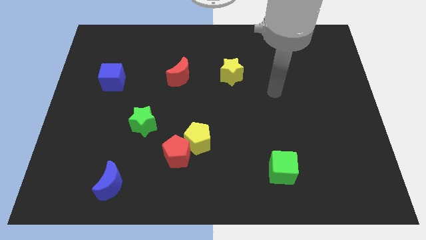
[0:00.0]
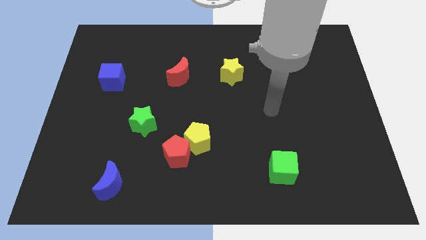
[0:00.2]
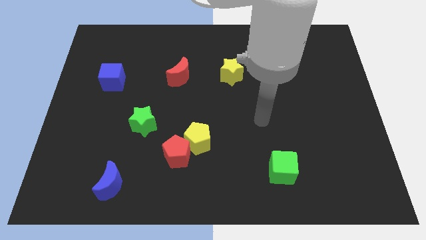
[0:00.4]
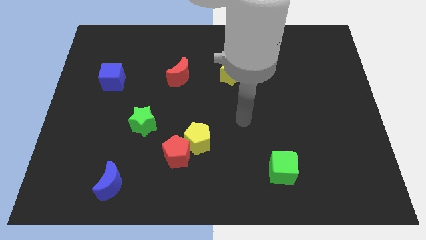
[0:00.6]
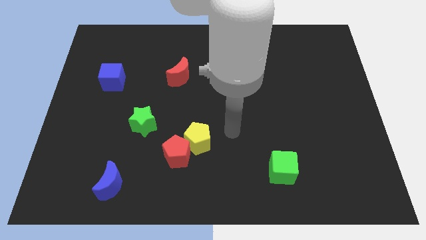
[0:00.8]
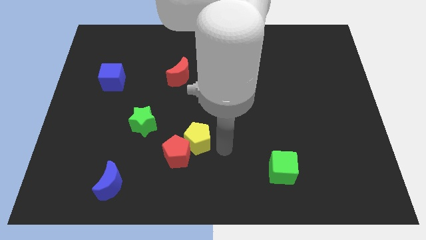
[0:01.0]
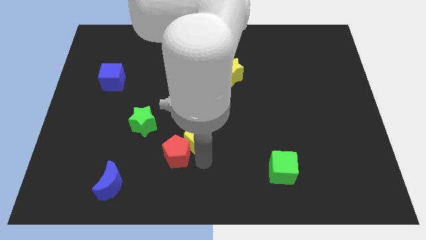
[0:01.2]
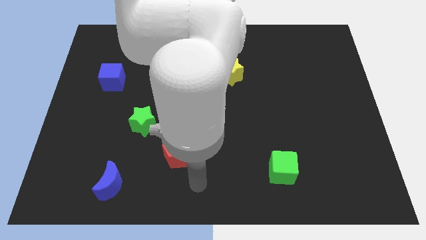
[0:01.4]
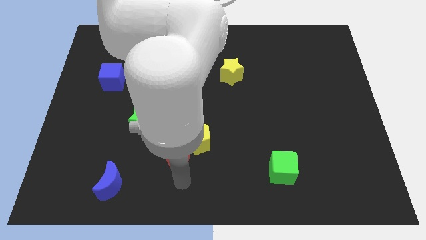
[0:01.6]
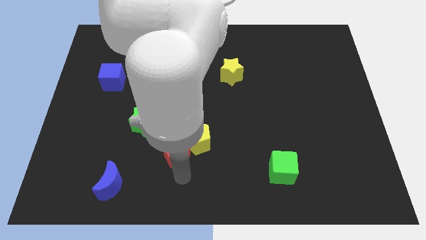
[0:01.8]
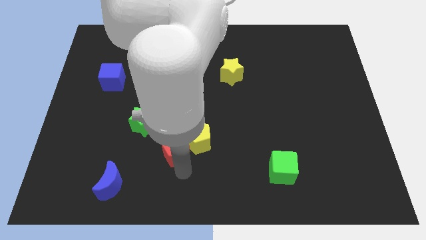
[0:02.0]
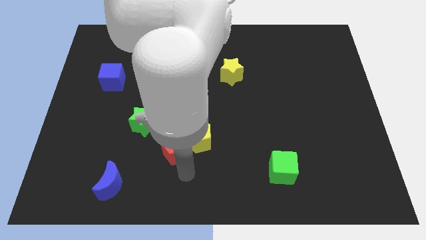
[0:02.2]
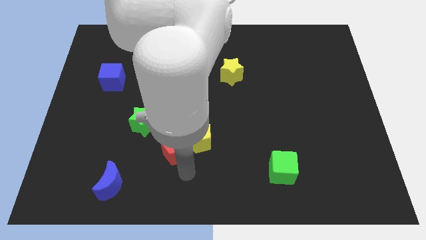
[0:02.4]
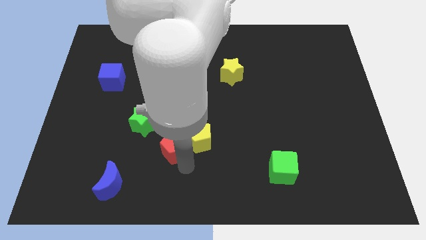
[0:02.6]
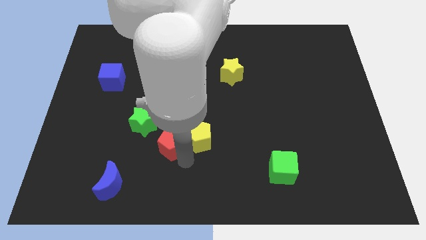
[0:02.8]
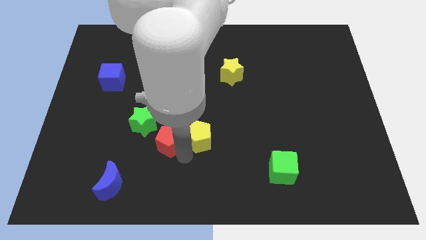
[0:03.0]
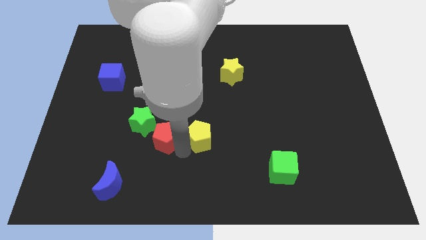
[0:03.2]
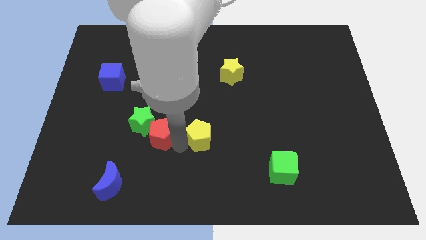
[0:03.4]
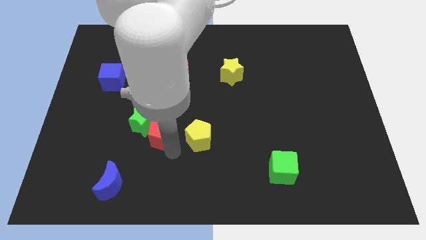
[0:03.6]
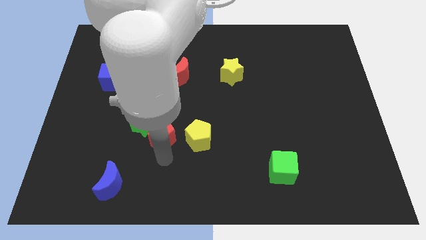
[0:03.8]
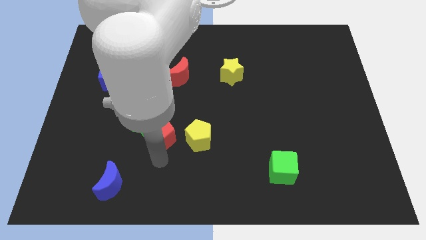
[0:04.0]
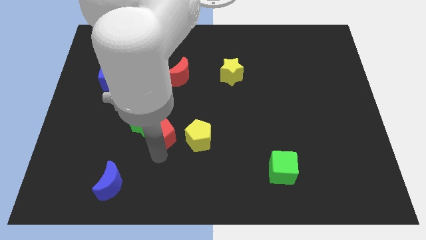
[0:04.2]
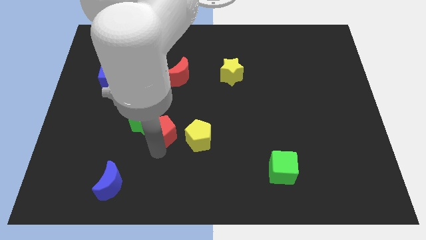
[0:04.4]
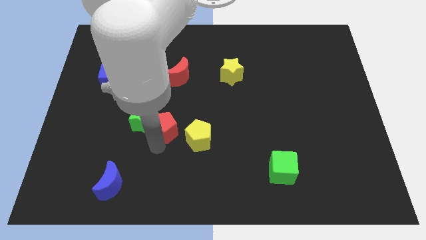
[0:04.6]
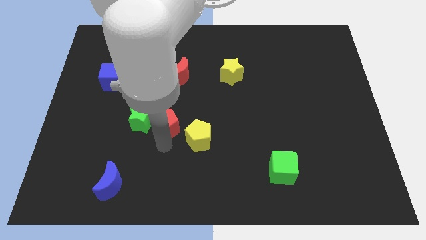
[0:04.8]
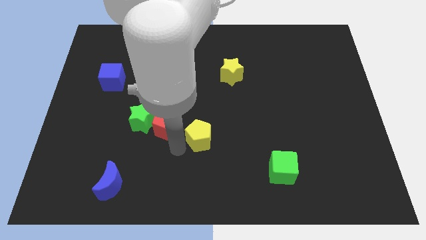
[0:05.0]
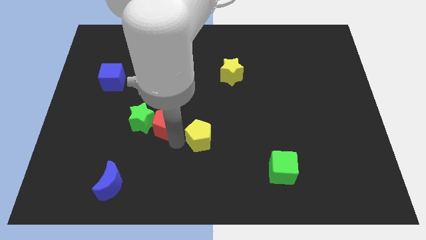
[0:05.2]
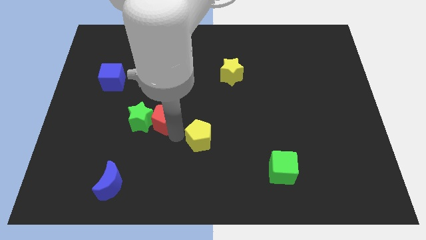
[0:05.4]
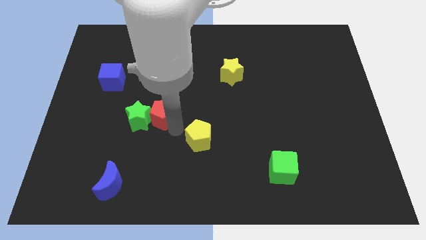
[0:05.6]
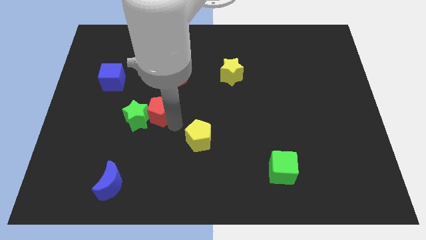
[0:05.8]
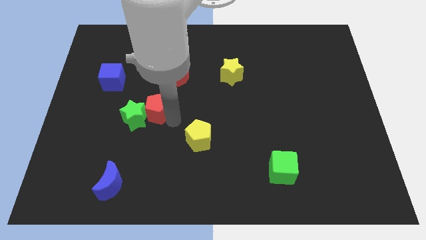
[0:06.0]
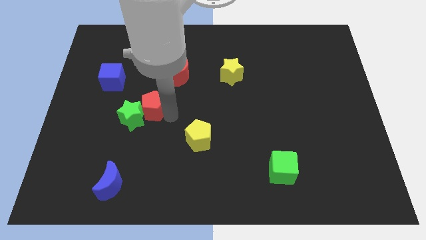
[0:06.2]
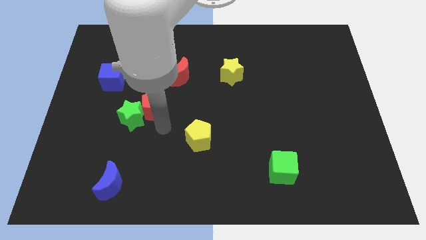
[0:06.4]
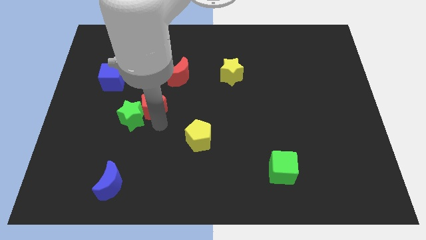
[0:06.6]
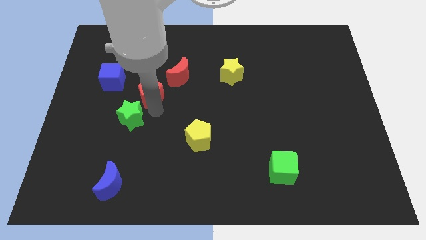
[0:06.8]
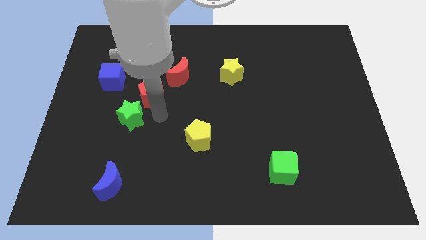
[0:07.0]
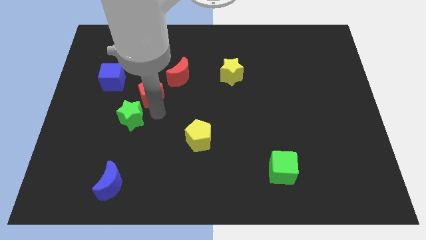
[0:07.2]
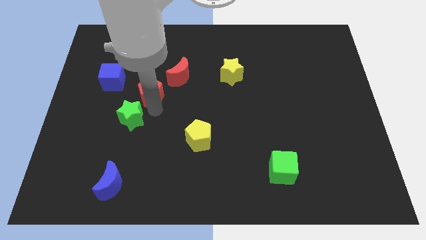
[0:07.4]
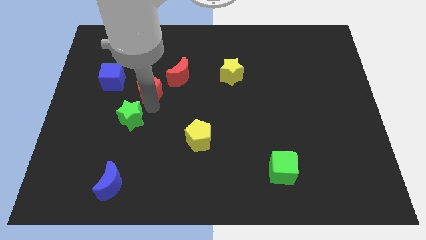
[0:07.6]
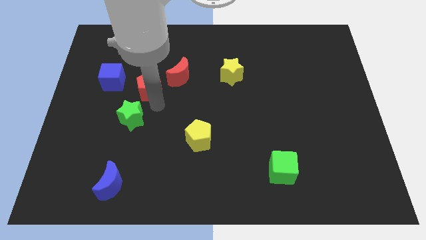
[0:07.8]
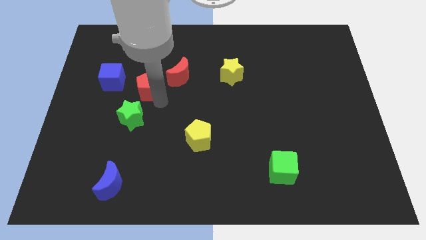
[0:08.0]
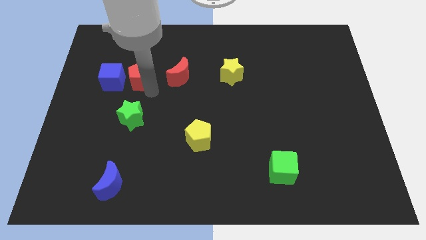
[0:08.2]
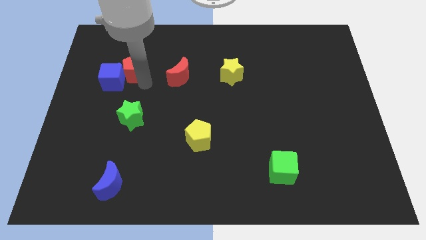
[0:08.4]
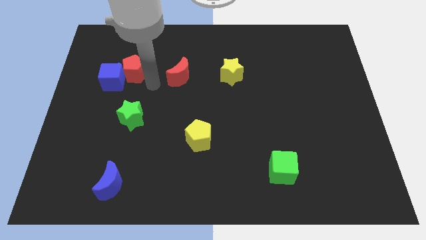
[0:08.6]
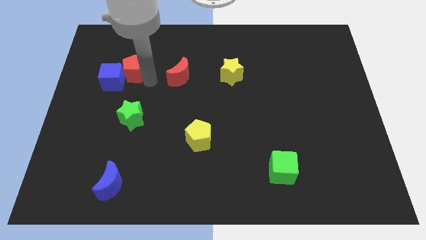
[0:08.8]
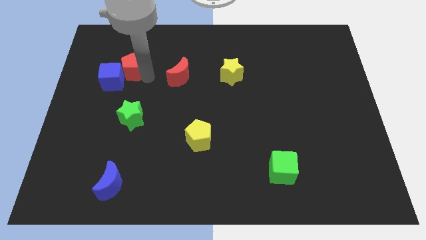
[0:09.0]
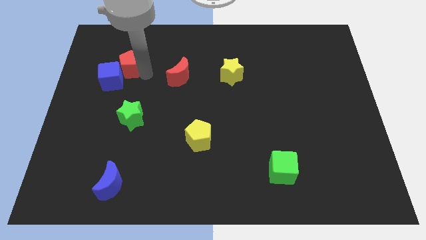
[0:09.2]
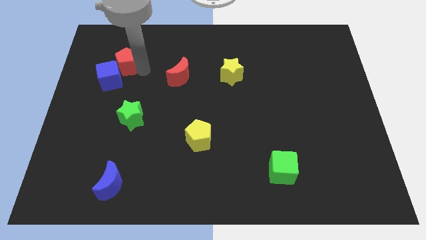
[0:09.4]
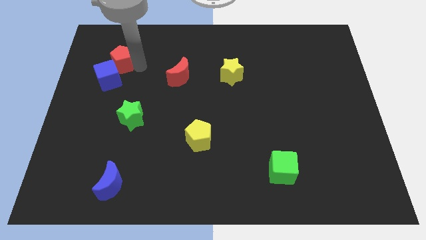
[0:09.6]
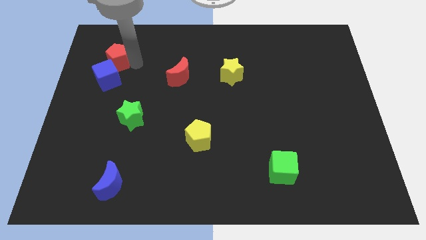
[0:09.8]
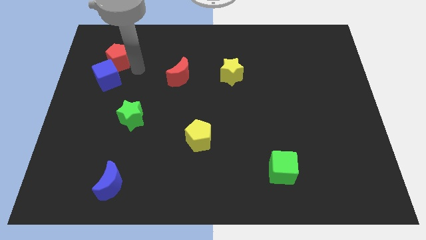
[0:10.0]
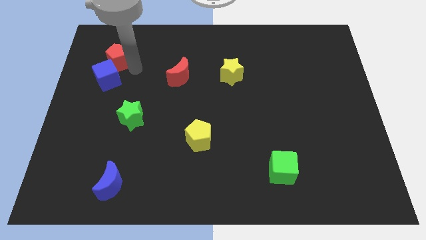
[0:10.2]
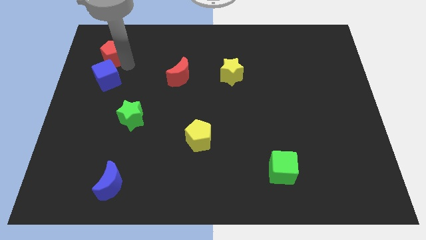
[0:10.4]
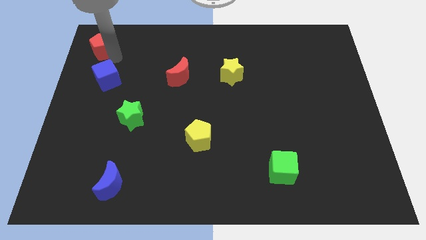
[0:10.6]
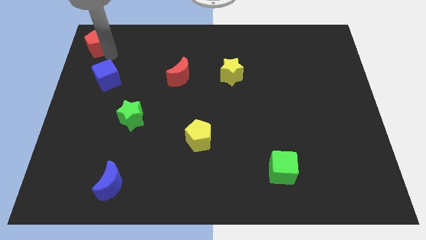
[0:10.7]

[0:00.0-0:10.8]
push the red pentagon to the top left corner

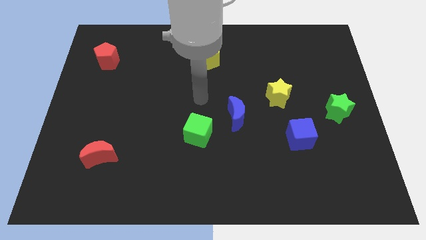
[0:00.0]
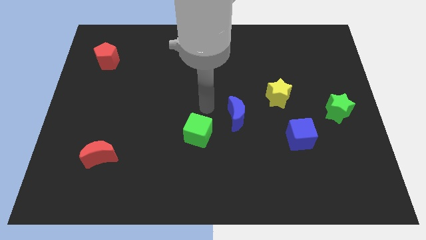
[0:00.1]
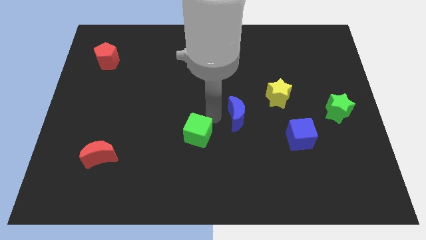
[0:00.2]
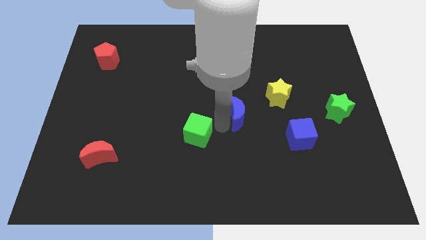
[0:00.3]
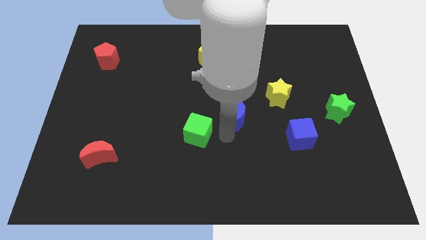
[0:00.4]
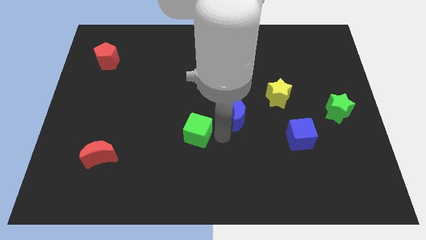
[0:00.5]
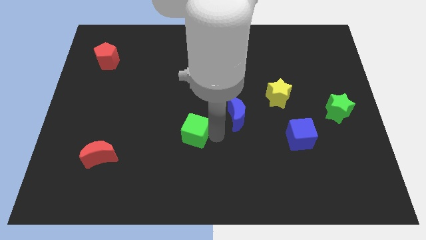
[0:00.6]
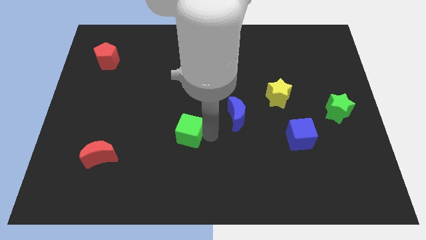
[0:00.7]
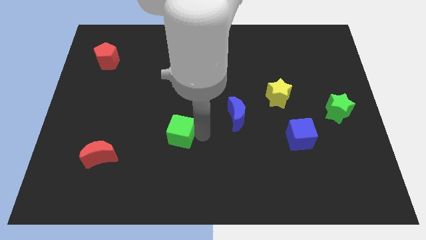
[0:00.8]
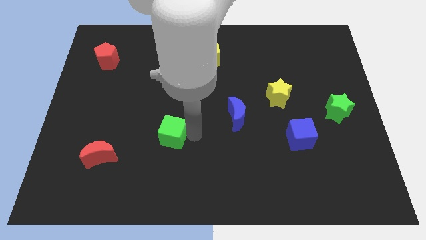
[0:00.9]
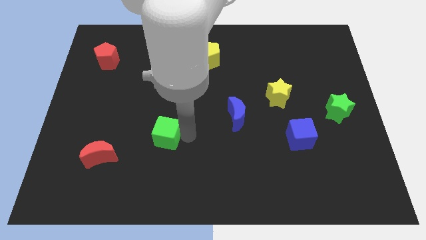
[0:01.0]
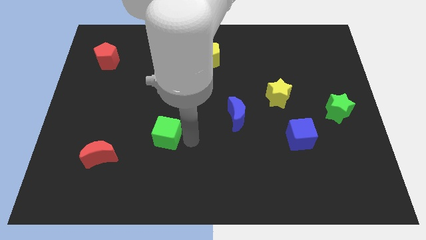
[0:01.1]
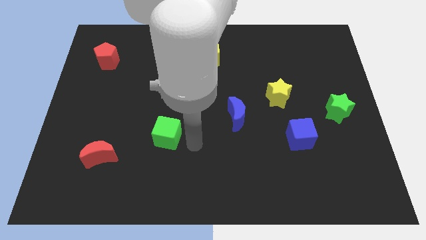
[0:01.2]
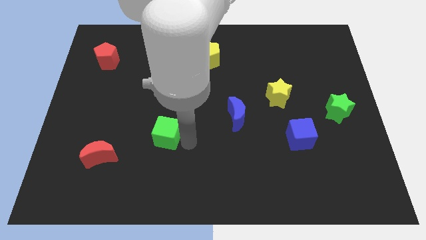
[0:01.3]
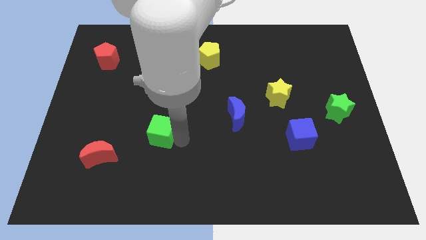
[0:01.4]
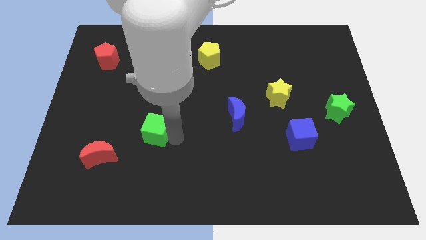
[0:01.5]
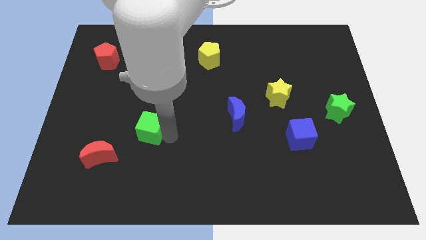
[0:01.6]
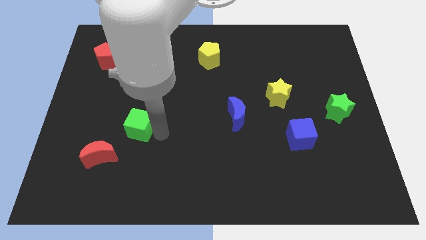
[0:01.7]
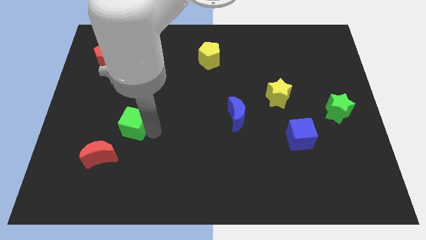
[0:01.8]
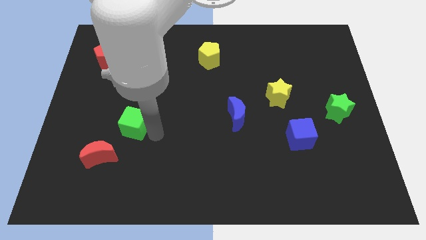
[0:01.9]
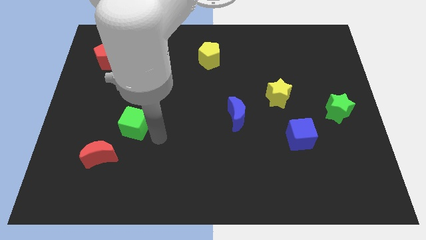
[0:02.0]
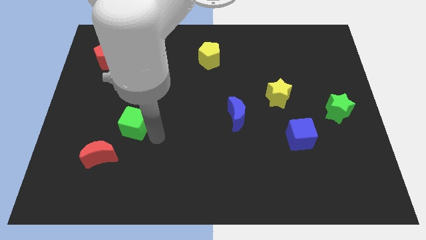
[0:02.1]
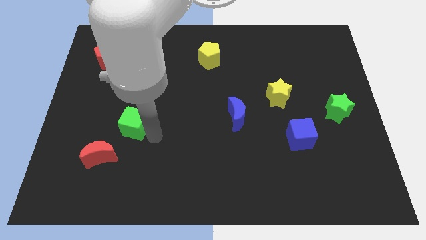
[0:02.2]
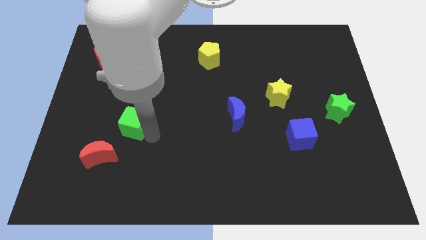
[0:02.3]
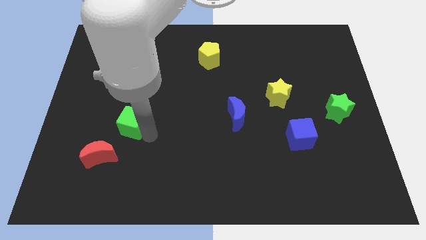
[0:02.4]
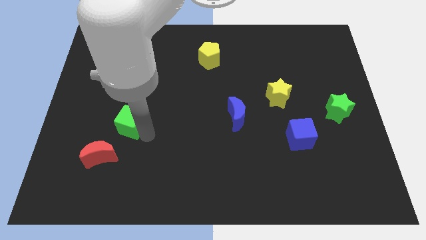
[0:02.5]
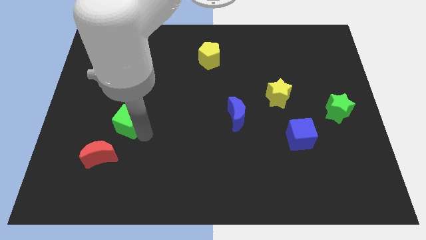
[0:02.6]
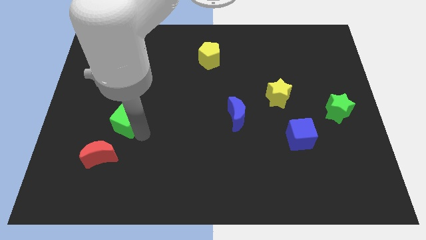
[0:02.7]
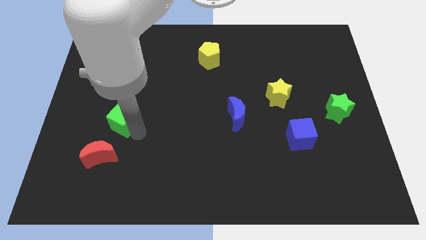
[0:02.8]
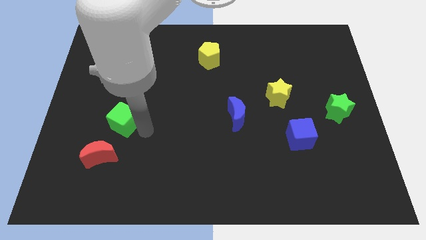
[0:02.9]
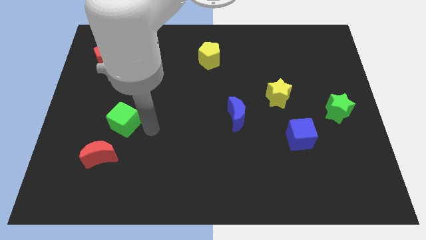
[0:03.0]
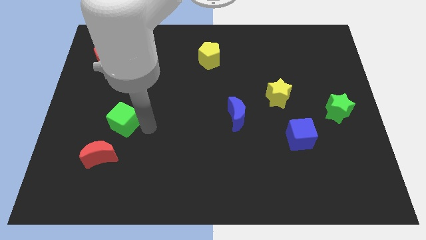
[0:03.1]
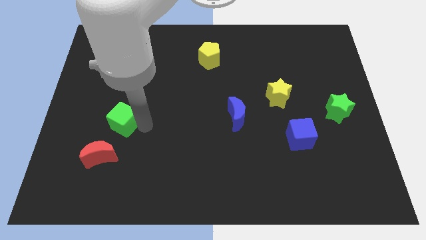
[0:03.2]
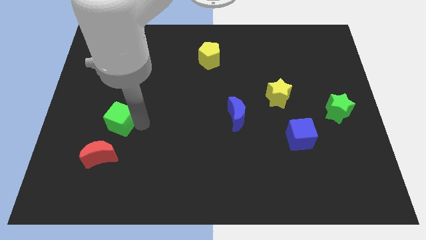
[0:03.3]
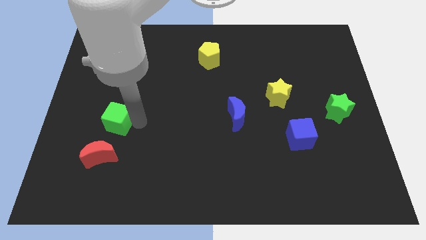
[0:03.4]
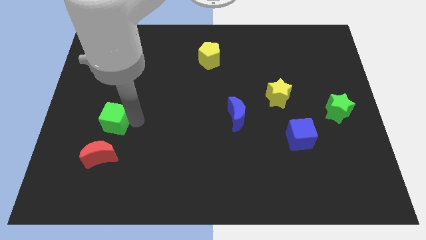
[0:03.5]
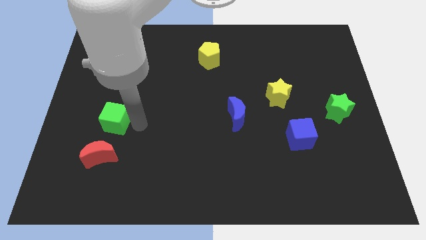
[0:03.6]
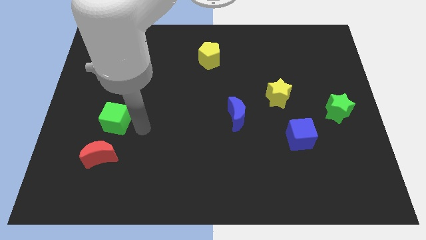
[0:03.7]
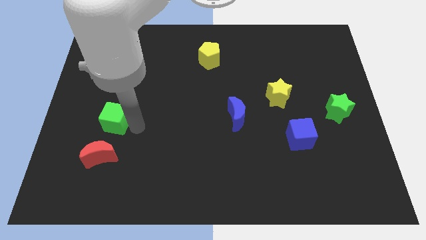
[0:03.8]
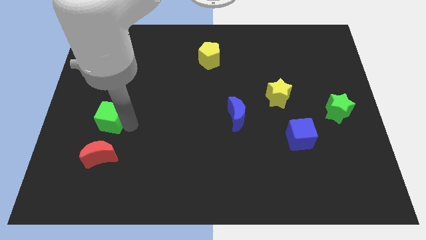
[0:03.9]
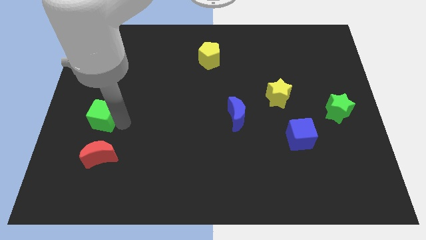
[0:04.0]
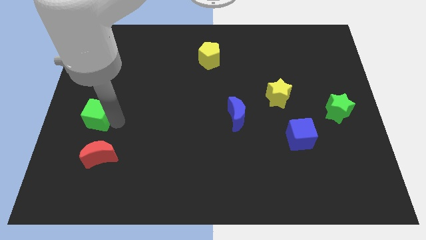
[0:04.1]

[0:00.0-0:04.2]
move the green cube to the center left
